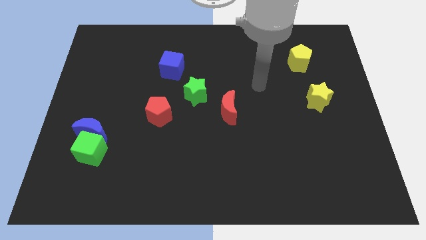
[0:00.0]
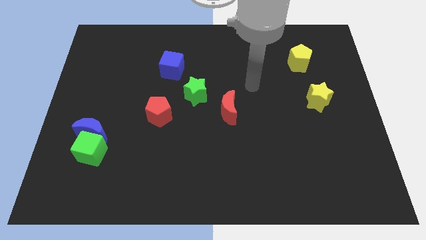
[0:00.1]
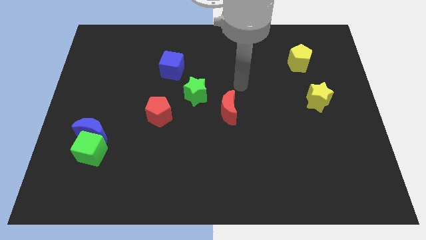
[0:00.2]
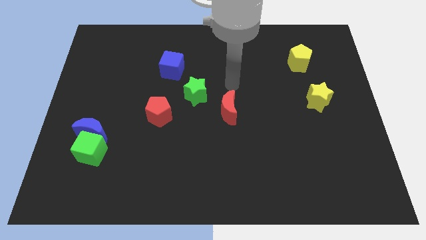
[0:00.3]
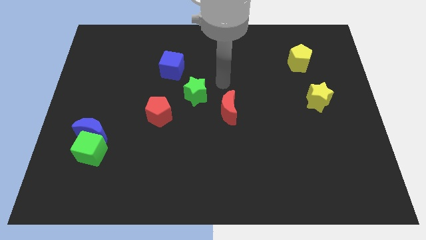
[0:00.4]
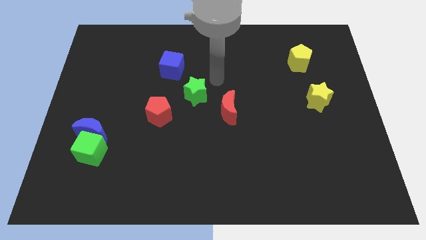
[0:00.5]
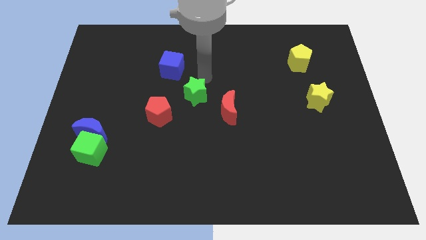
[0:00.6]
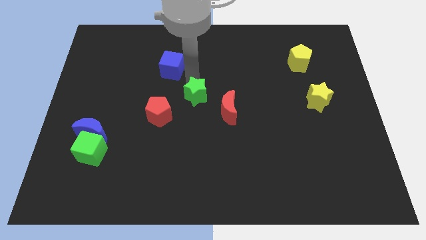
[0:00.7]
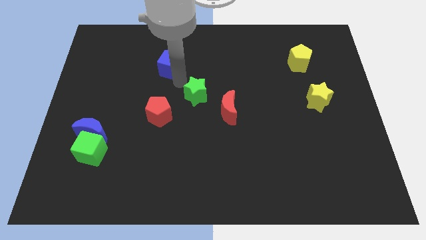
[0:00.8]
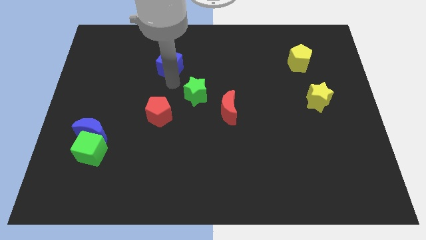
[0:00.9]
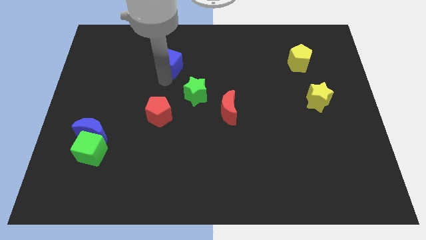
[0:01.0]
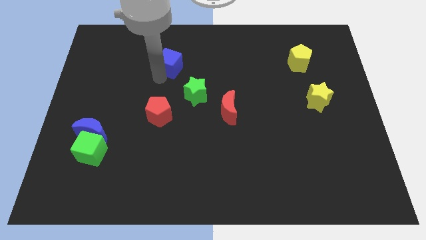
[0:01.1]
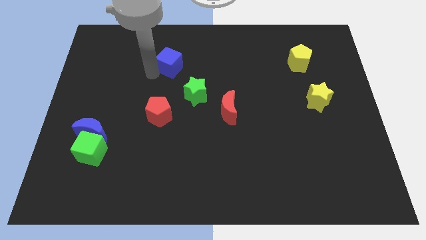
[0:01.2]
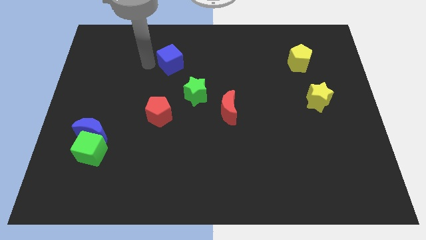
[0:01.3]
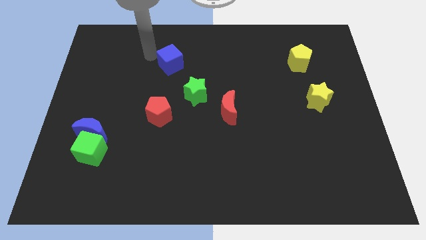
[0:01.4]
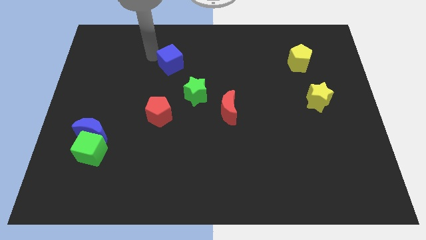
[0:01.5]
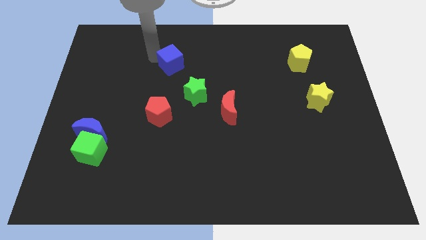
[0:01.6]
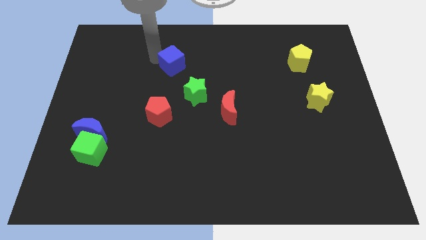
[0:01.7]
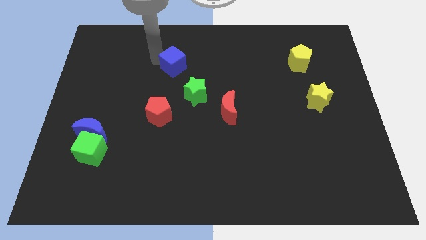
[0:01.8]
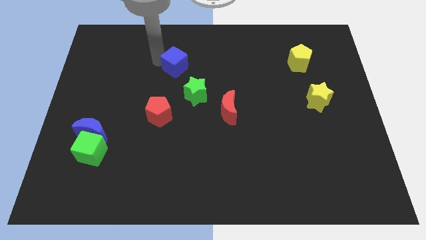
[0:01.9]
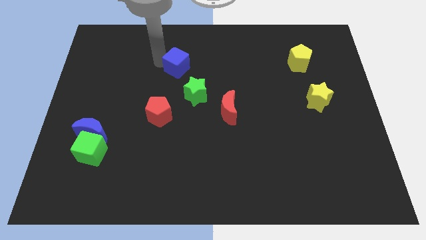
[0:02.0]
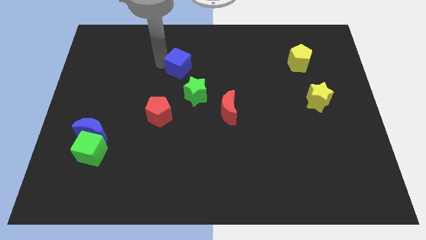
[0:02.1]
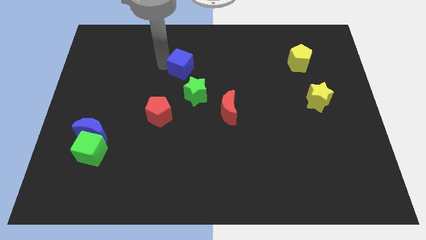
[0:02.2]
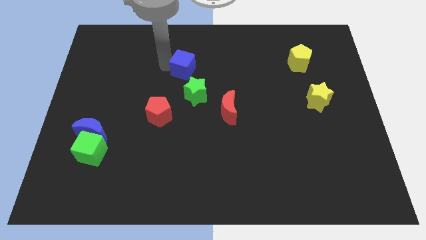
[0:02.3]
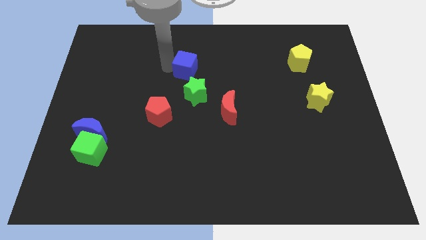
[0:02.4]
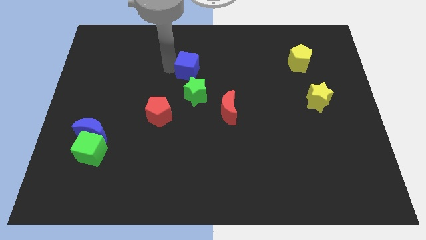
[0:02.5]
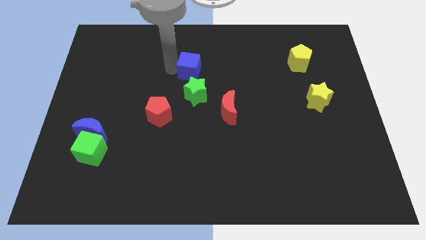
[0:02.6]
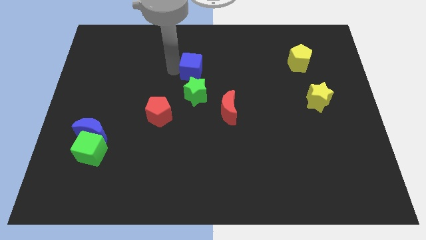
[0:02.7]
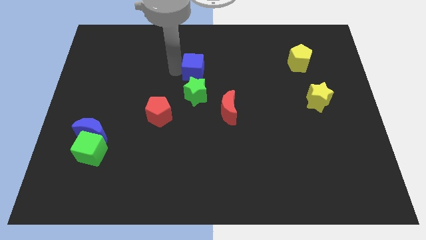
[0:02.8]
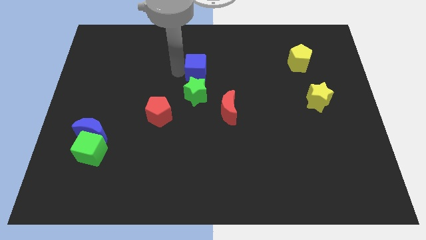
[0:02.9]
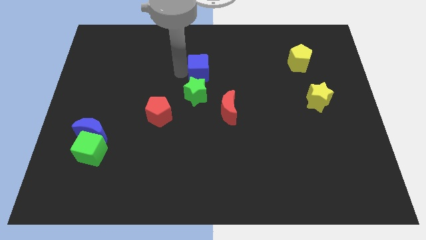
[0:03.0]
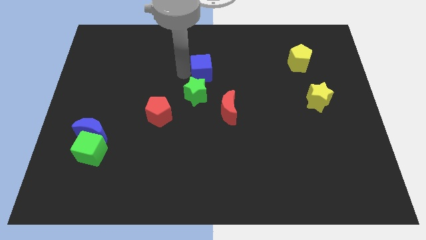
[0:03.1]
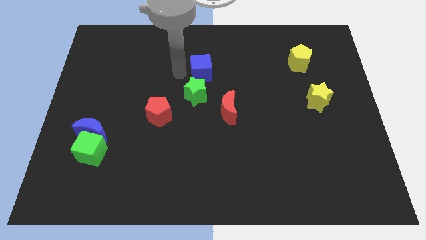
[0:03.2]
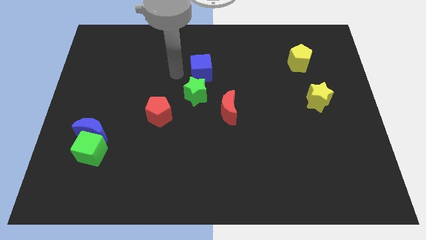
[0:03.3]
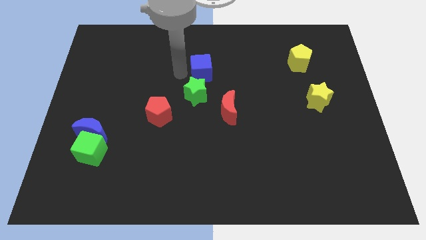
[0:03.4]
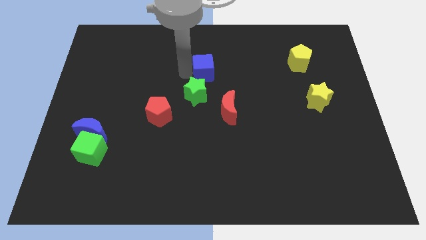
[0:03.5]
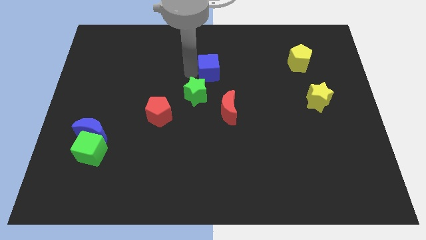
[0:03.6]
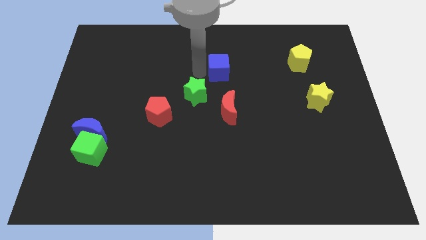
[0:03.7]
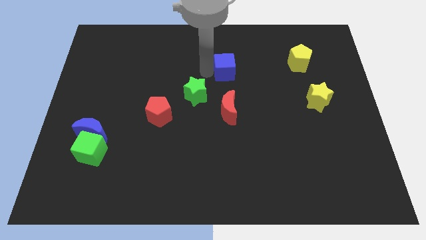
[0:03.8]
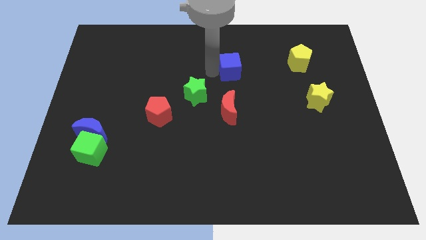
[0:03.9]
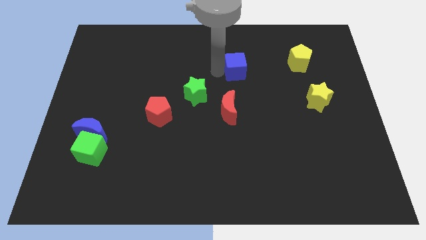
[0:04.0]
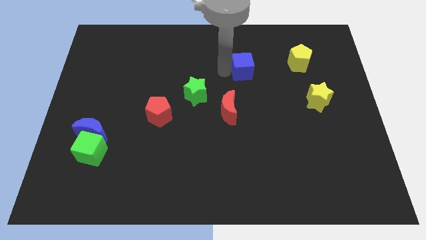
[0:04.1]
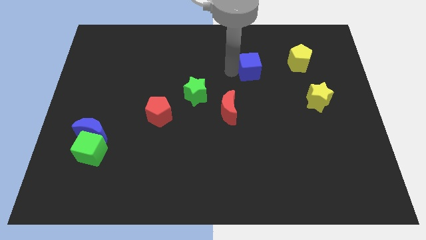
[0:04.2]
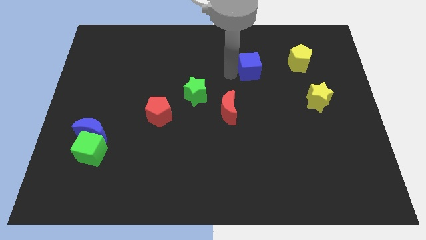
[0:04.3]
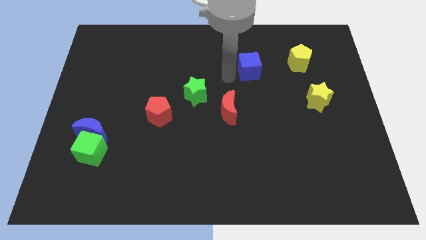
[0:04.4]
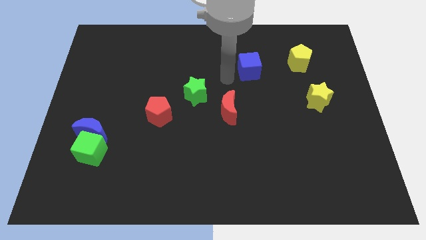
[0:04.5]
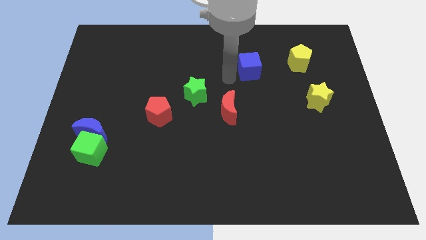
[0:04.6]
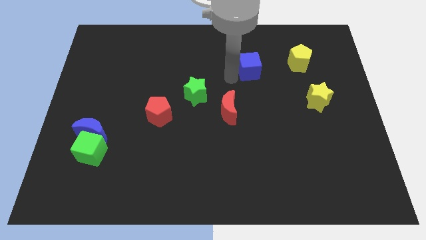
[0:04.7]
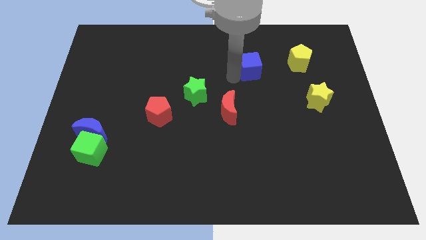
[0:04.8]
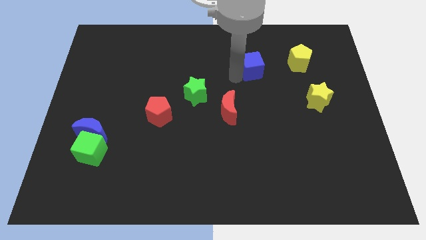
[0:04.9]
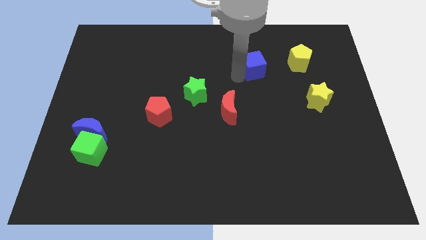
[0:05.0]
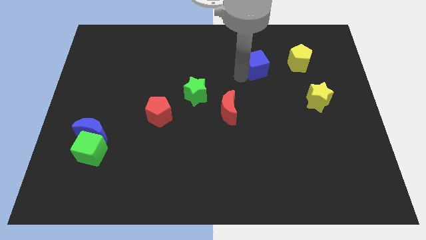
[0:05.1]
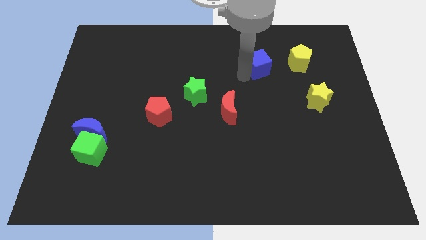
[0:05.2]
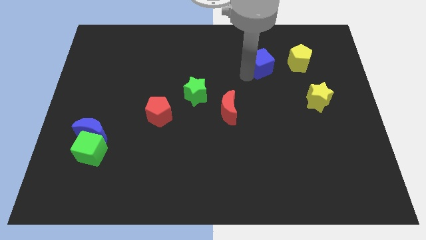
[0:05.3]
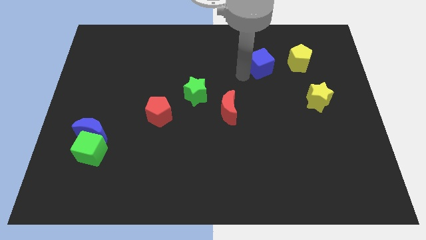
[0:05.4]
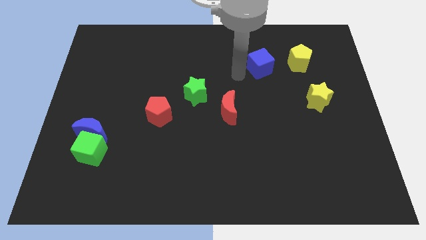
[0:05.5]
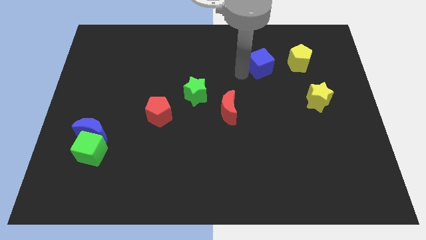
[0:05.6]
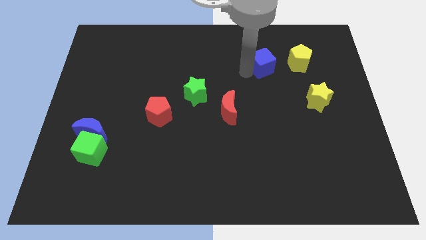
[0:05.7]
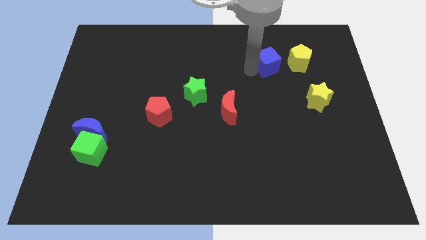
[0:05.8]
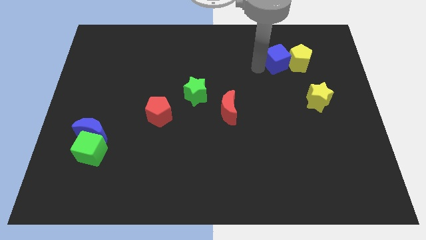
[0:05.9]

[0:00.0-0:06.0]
slide the blue cube next to the yellow pentagon
